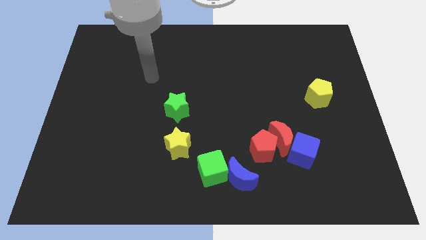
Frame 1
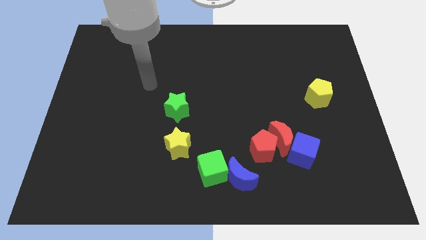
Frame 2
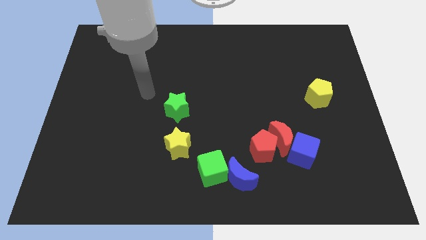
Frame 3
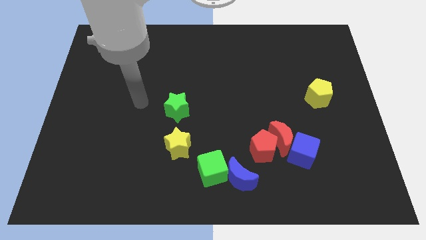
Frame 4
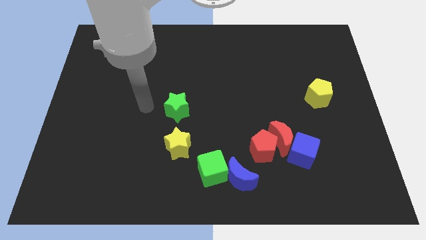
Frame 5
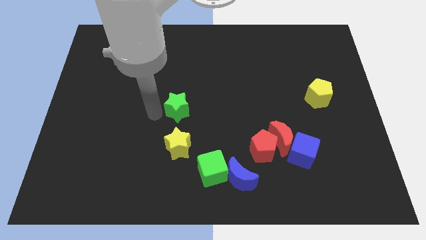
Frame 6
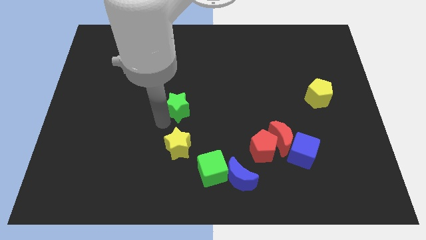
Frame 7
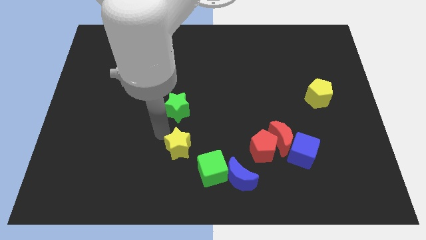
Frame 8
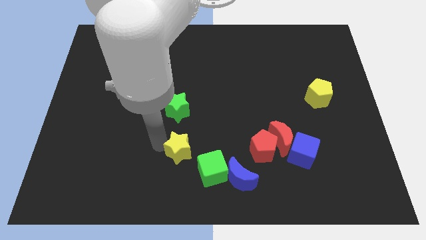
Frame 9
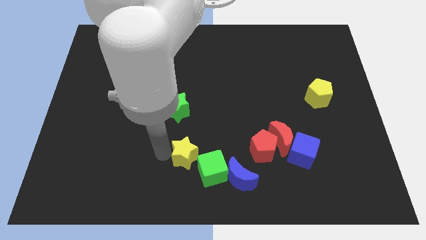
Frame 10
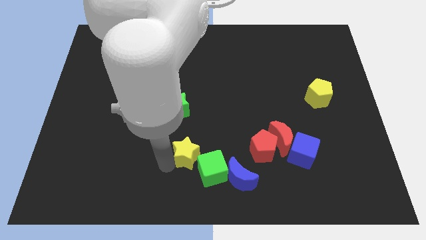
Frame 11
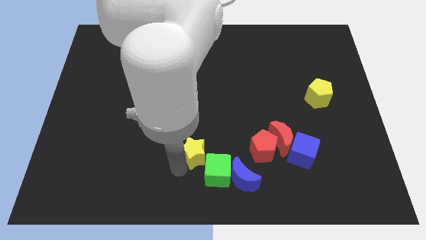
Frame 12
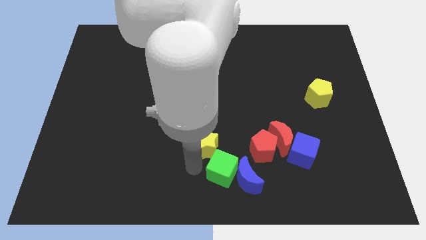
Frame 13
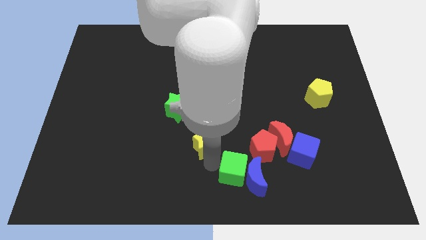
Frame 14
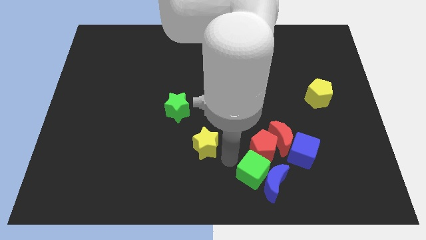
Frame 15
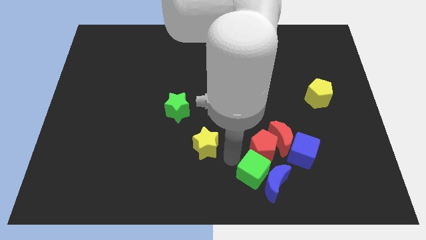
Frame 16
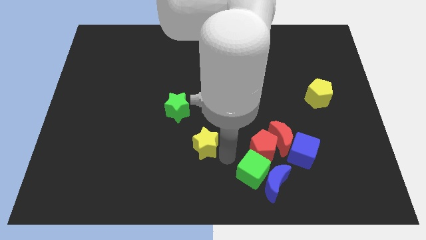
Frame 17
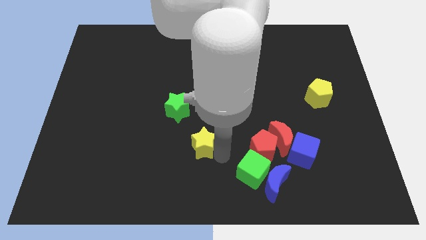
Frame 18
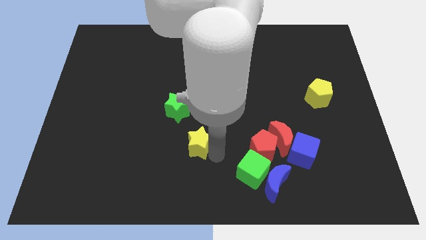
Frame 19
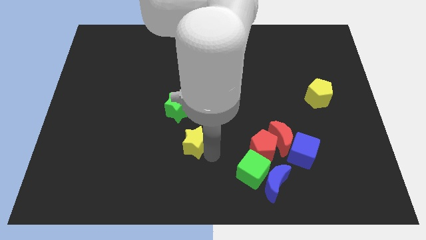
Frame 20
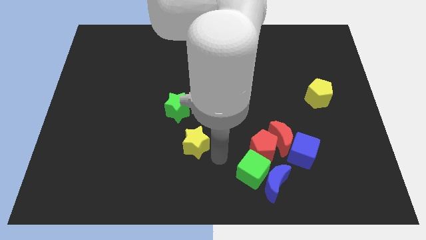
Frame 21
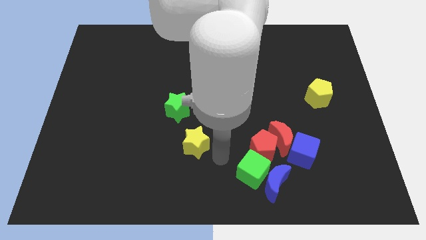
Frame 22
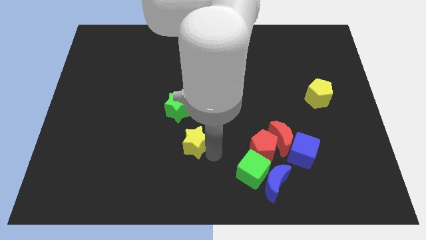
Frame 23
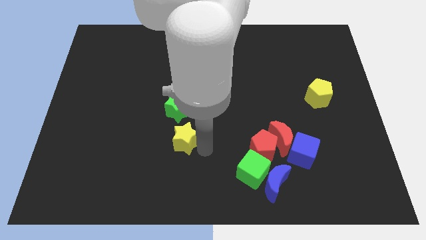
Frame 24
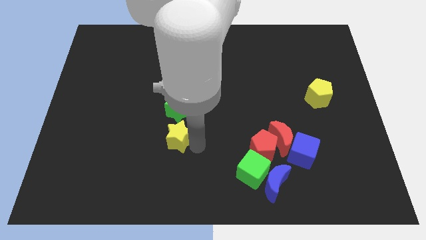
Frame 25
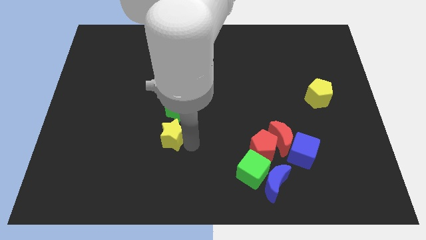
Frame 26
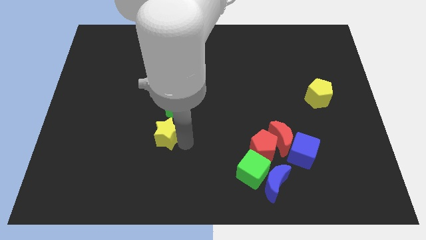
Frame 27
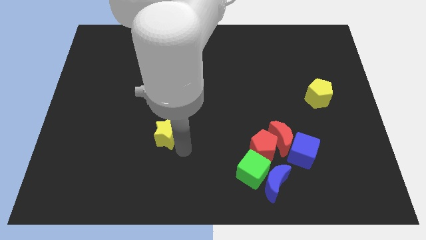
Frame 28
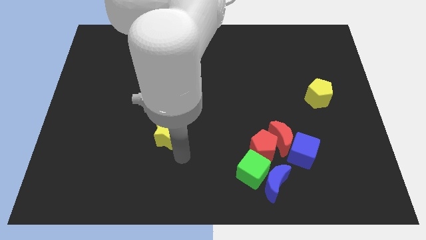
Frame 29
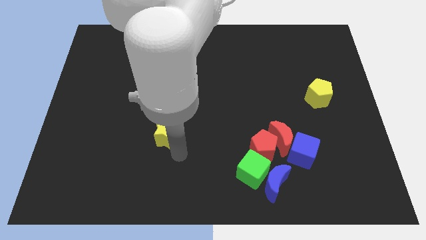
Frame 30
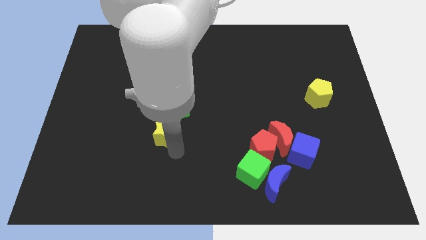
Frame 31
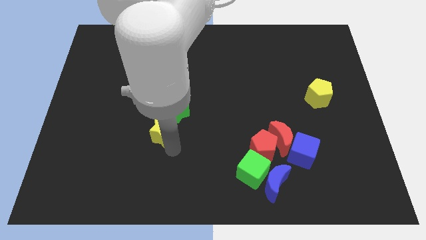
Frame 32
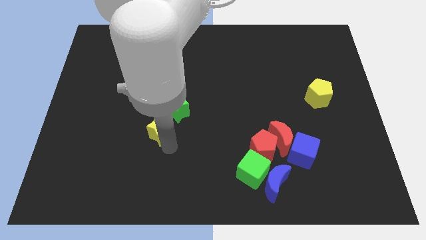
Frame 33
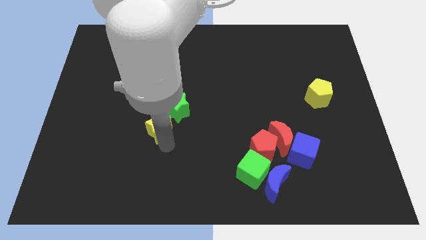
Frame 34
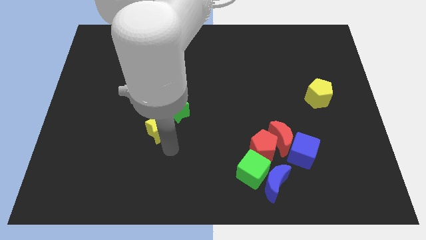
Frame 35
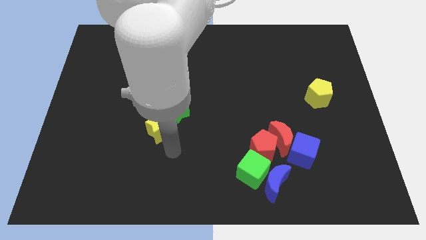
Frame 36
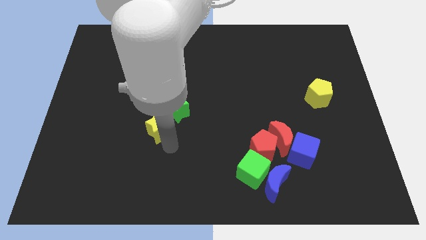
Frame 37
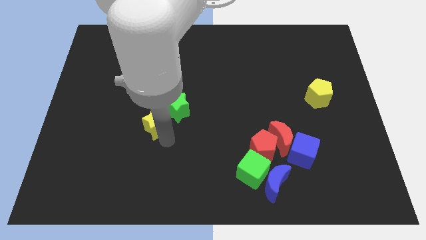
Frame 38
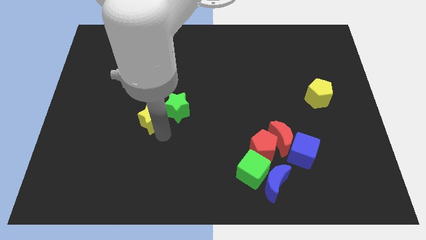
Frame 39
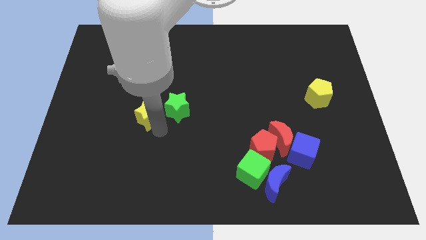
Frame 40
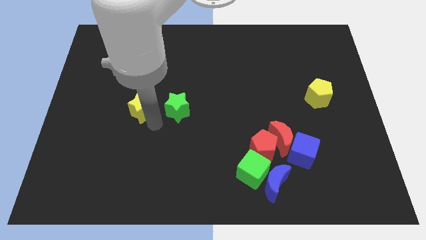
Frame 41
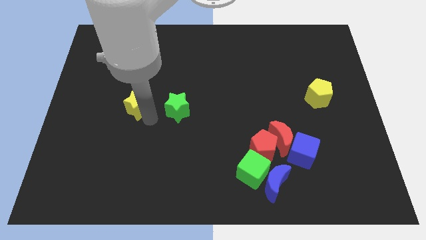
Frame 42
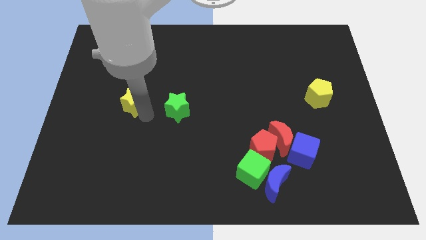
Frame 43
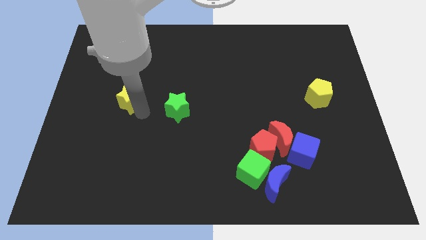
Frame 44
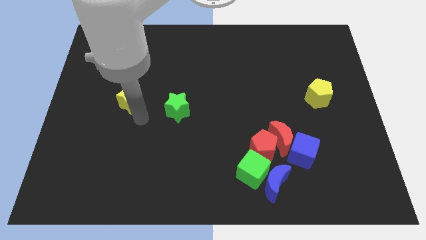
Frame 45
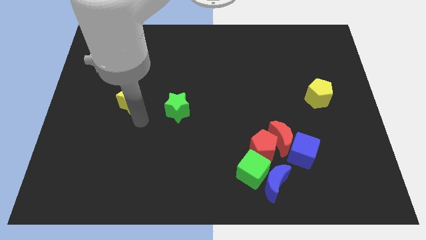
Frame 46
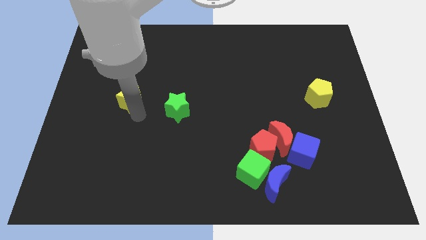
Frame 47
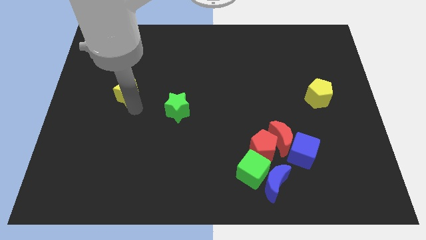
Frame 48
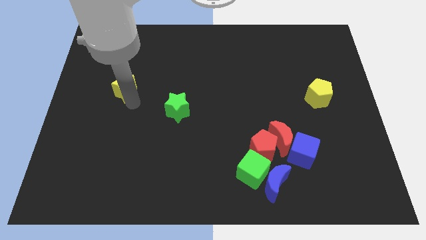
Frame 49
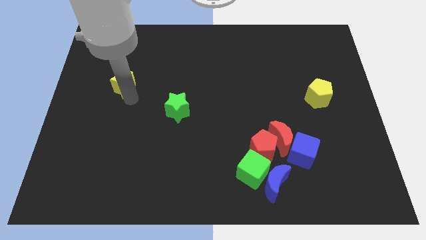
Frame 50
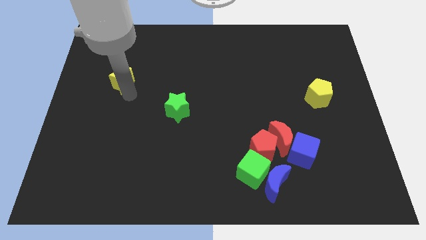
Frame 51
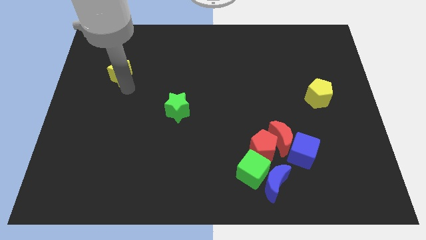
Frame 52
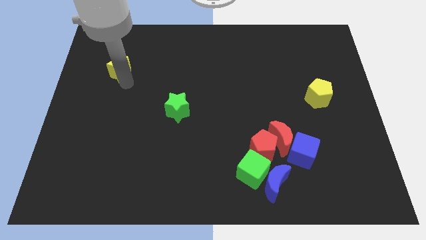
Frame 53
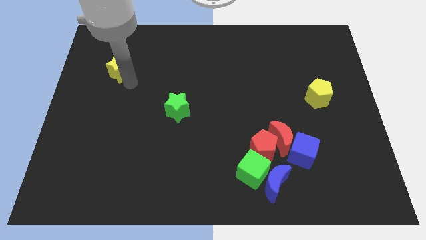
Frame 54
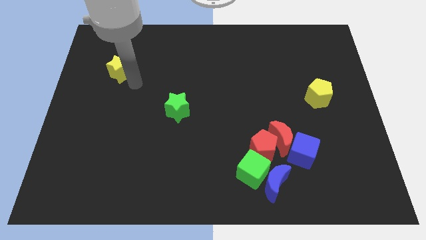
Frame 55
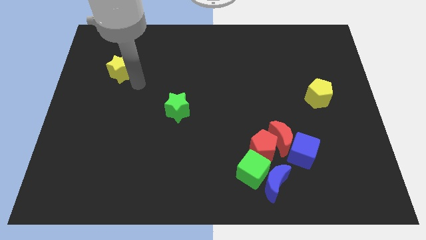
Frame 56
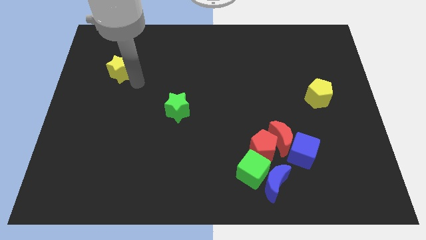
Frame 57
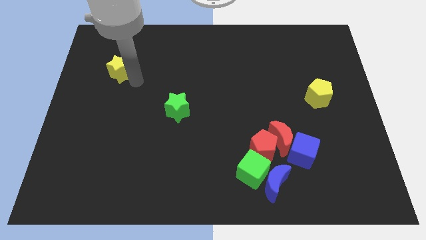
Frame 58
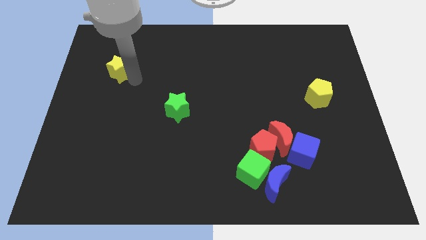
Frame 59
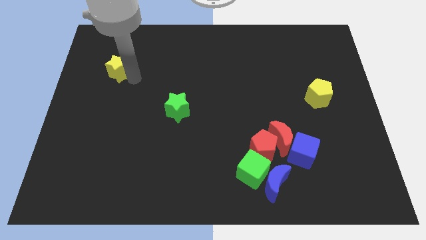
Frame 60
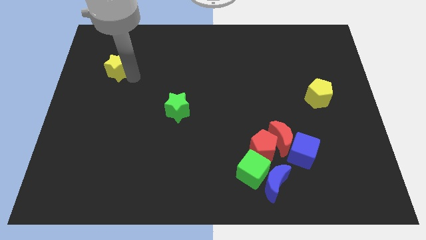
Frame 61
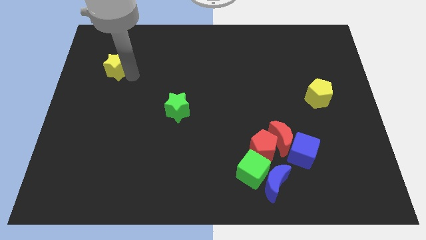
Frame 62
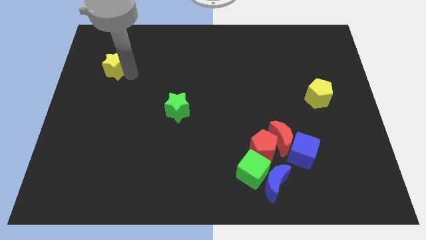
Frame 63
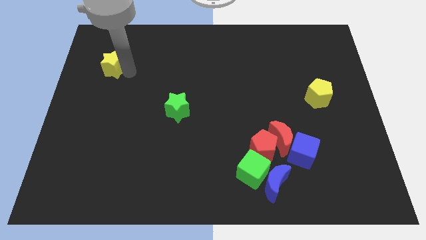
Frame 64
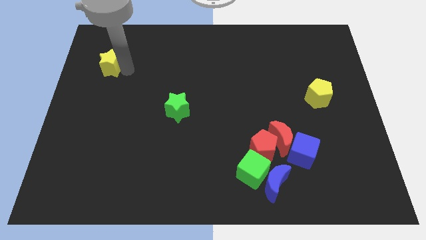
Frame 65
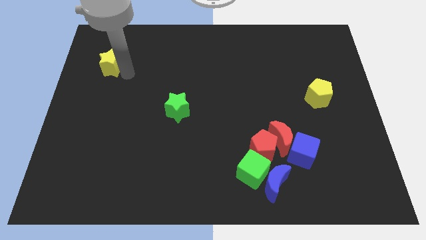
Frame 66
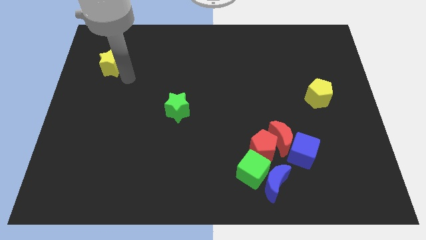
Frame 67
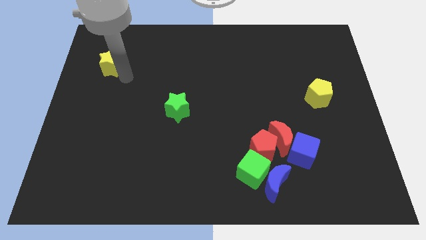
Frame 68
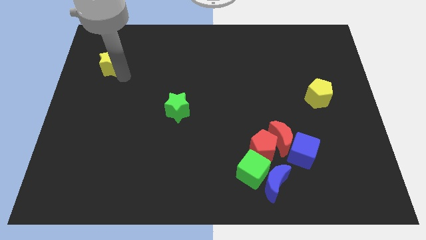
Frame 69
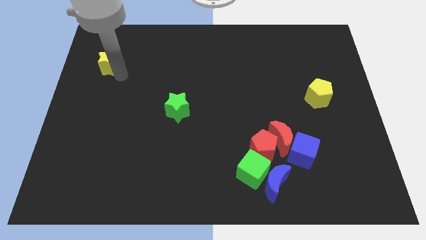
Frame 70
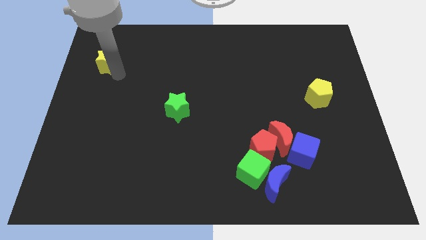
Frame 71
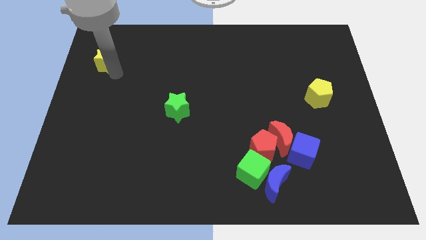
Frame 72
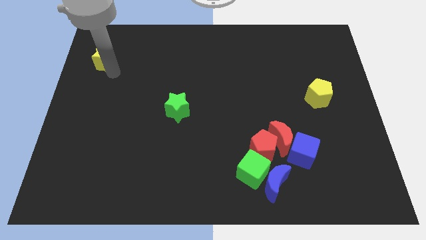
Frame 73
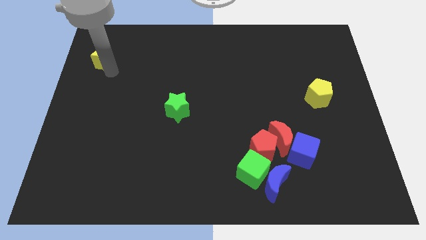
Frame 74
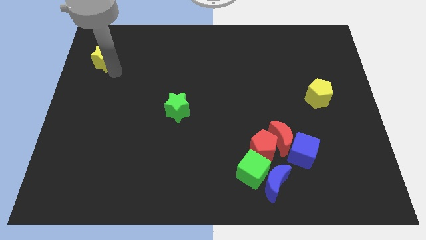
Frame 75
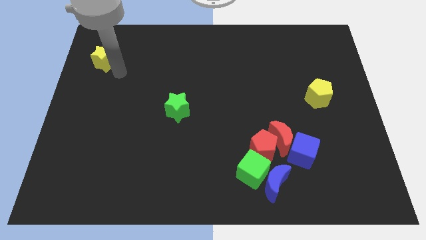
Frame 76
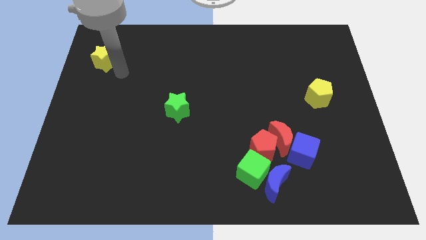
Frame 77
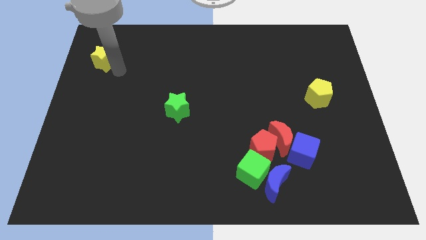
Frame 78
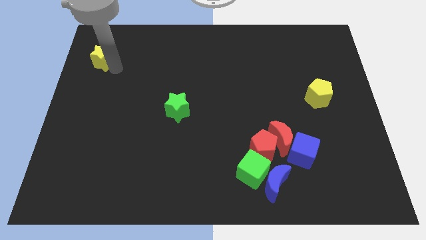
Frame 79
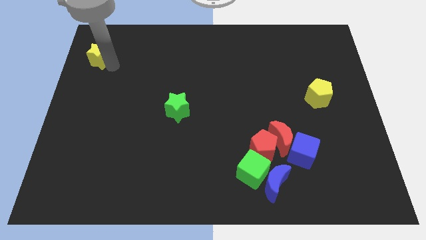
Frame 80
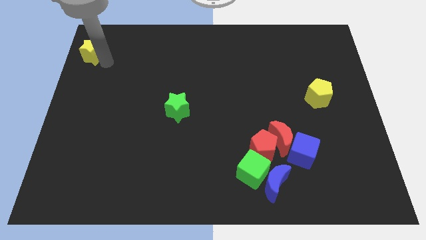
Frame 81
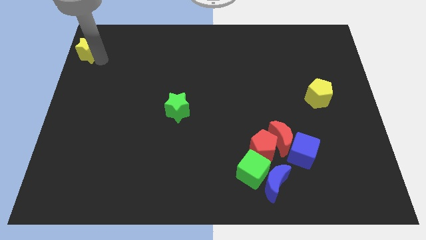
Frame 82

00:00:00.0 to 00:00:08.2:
slide the yellow star to the top left corner
